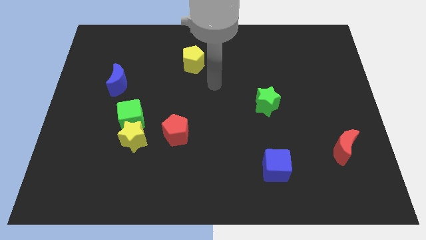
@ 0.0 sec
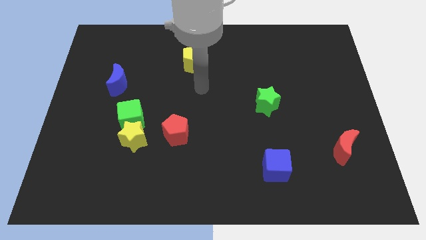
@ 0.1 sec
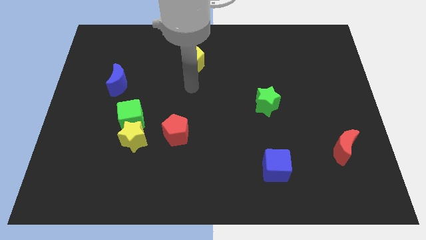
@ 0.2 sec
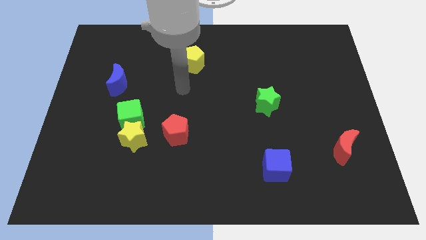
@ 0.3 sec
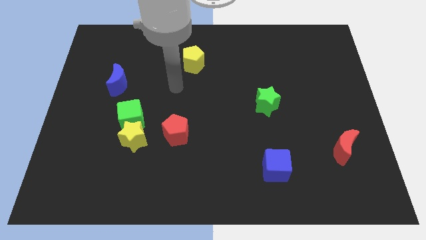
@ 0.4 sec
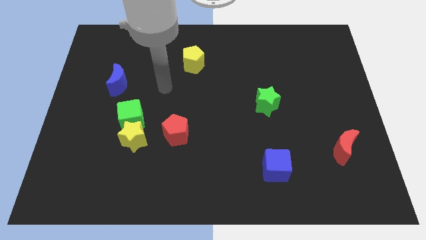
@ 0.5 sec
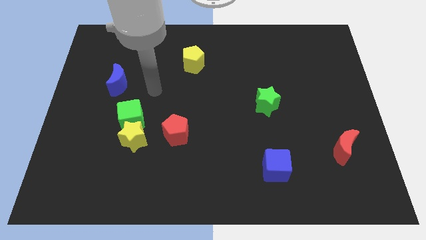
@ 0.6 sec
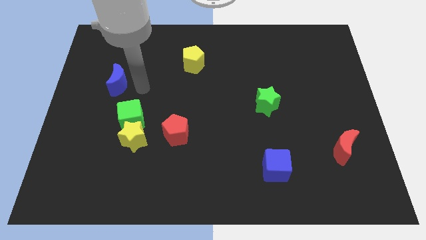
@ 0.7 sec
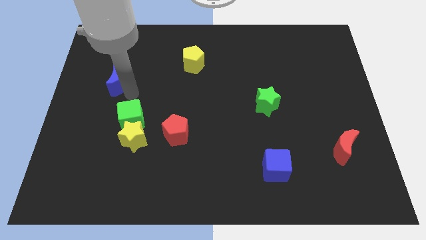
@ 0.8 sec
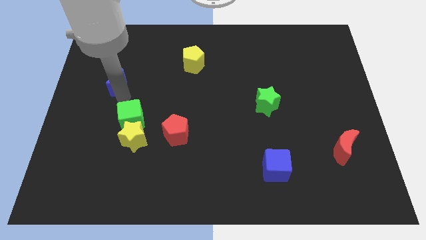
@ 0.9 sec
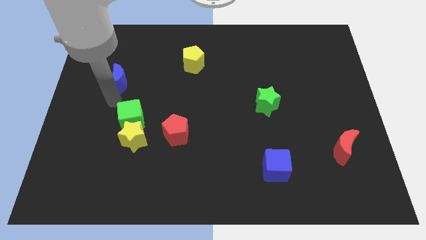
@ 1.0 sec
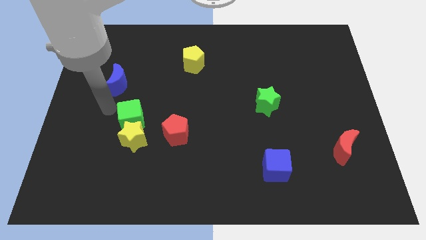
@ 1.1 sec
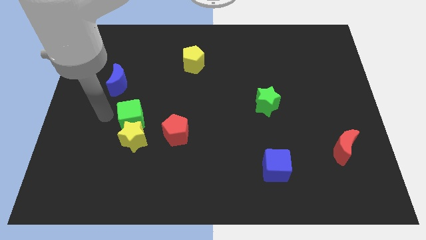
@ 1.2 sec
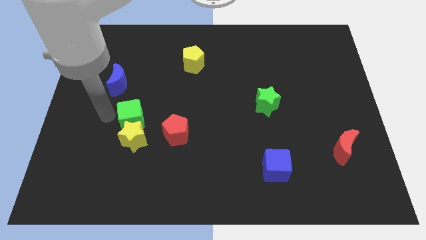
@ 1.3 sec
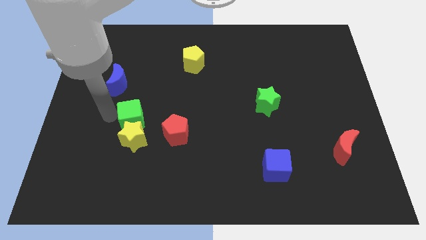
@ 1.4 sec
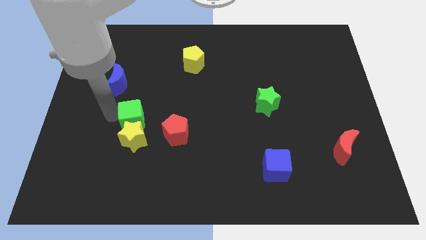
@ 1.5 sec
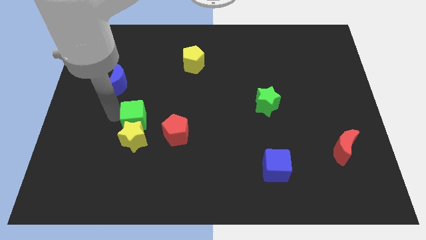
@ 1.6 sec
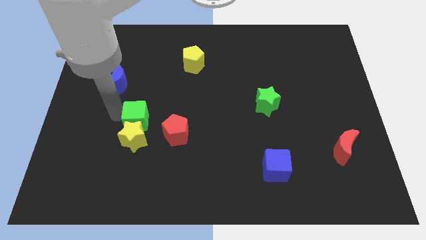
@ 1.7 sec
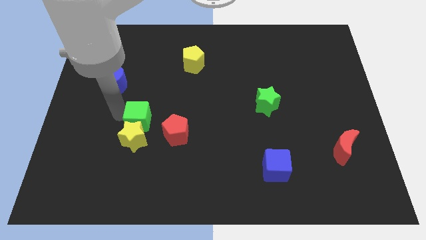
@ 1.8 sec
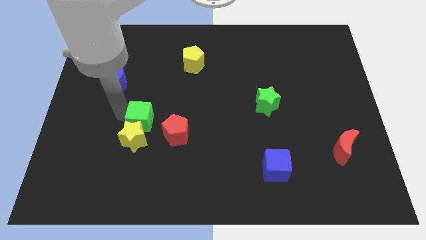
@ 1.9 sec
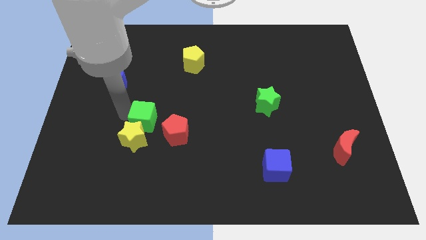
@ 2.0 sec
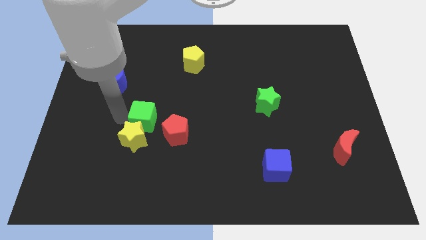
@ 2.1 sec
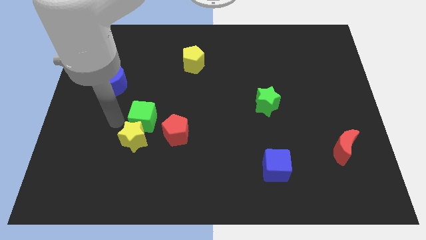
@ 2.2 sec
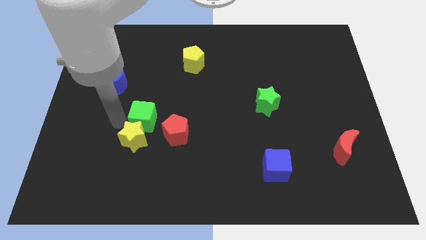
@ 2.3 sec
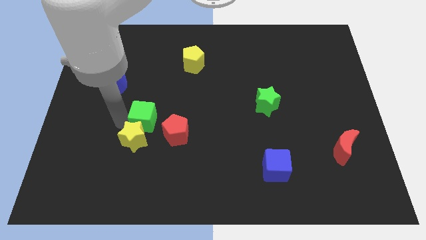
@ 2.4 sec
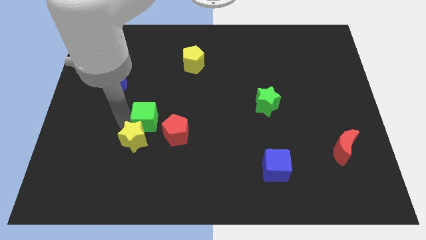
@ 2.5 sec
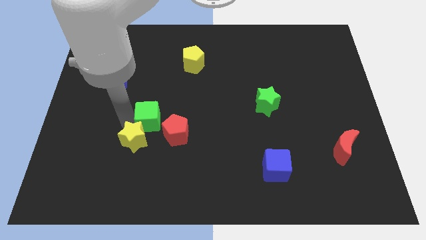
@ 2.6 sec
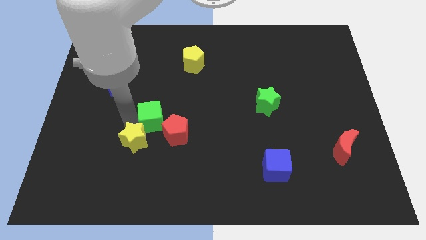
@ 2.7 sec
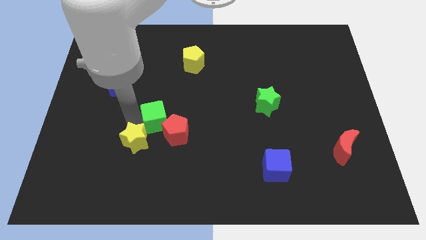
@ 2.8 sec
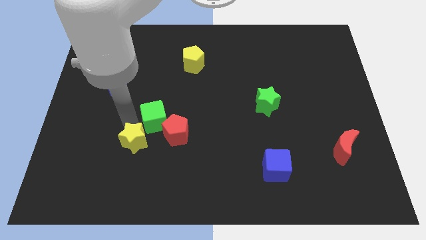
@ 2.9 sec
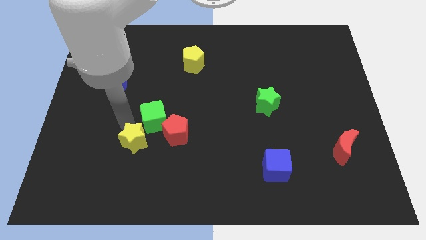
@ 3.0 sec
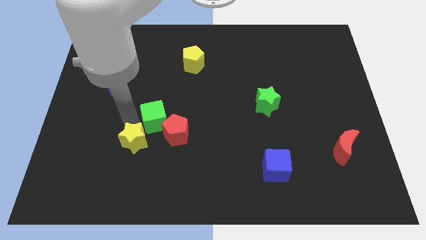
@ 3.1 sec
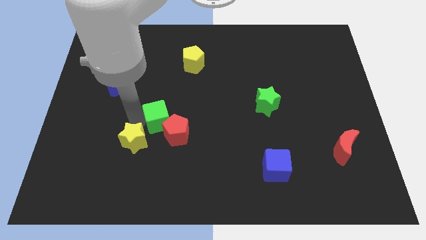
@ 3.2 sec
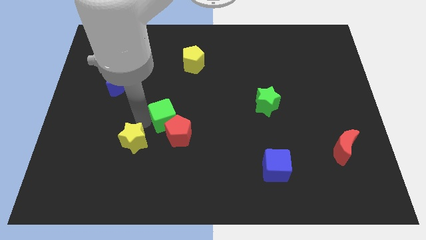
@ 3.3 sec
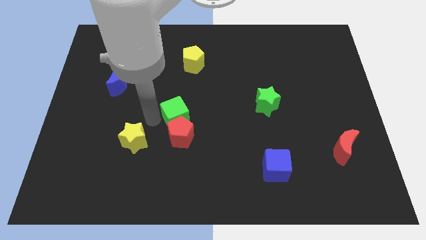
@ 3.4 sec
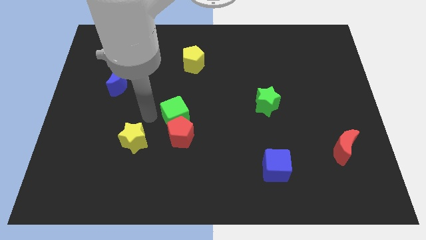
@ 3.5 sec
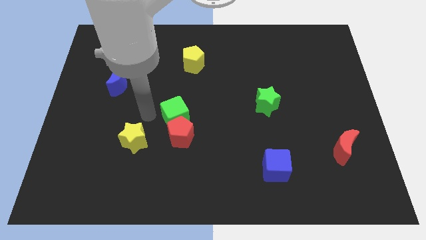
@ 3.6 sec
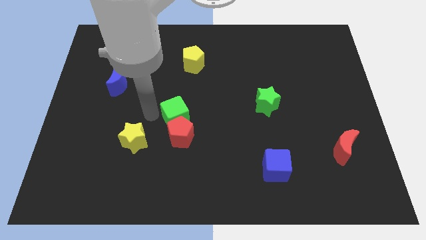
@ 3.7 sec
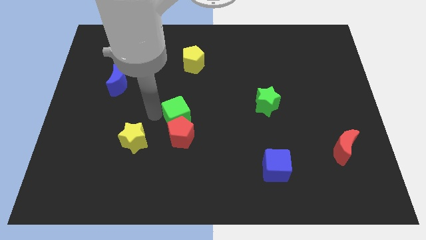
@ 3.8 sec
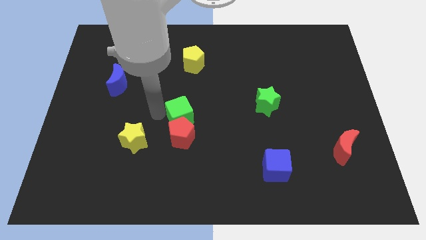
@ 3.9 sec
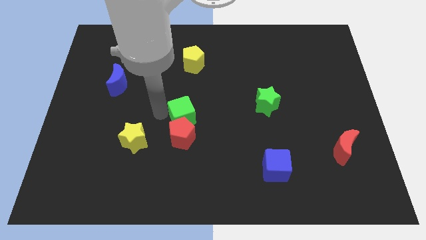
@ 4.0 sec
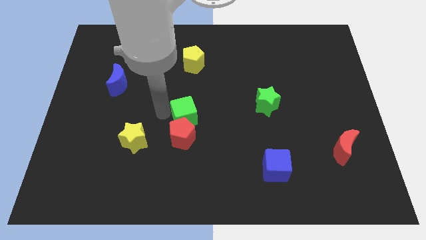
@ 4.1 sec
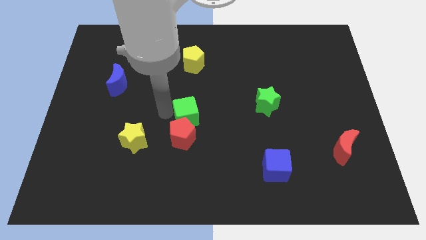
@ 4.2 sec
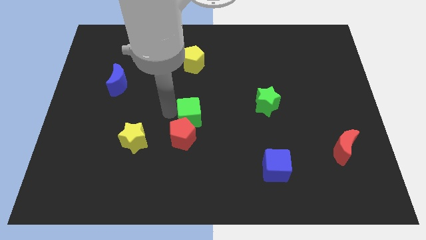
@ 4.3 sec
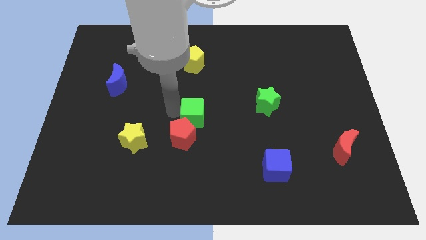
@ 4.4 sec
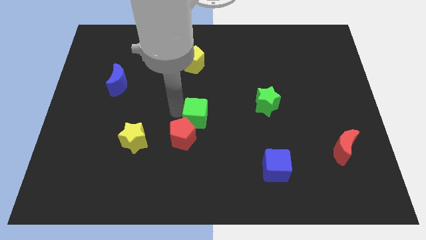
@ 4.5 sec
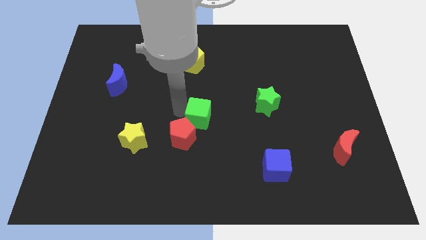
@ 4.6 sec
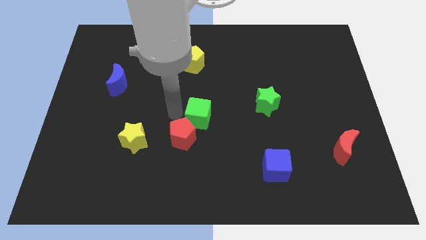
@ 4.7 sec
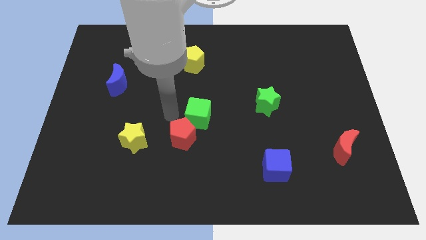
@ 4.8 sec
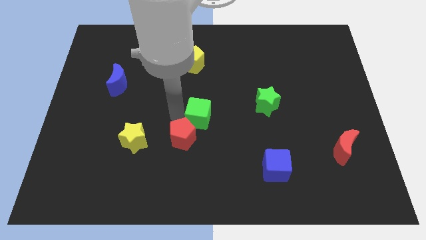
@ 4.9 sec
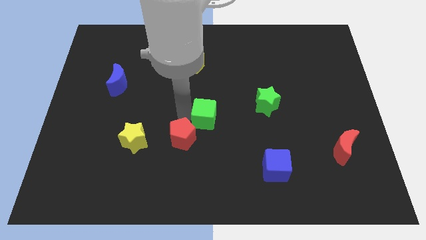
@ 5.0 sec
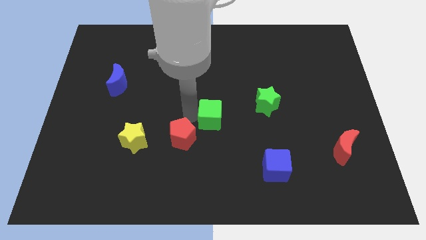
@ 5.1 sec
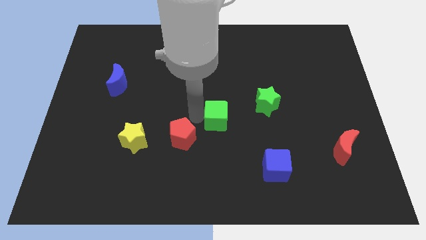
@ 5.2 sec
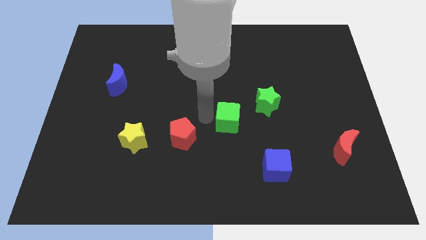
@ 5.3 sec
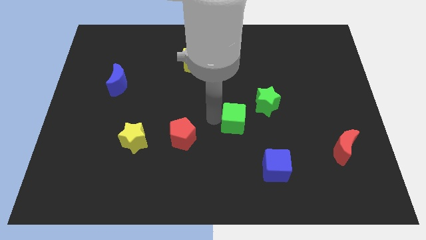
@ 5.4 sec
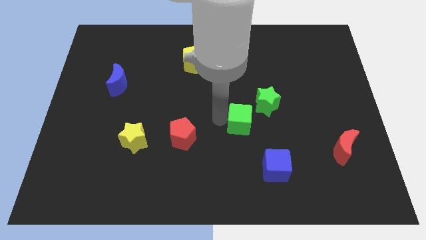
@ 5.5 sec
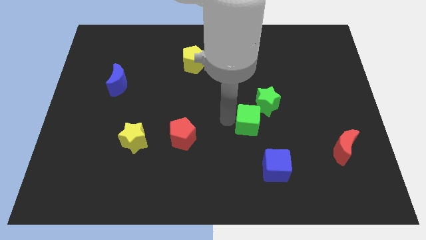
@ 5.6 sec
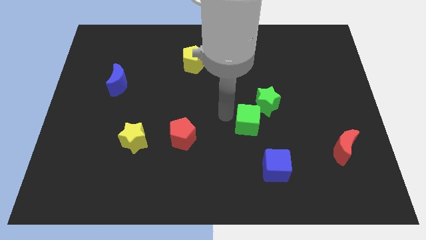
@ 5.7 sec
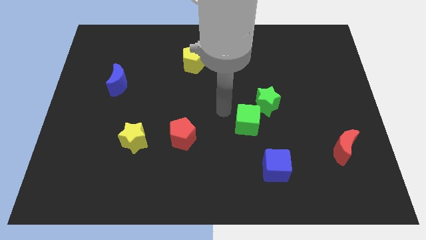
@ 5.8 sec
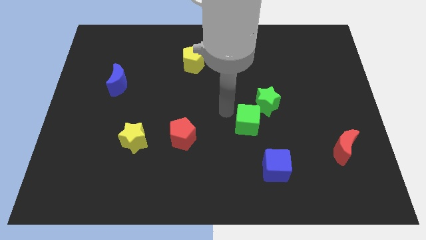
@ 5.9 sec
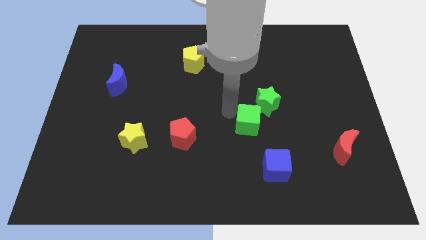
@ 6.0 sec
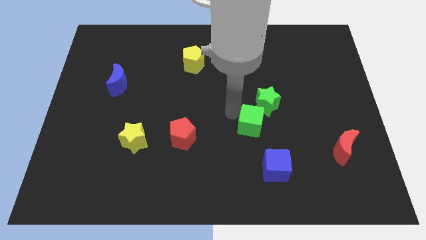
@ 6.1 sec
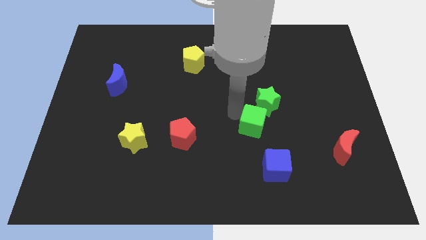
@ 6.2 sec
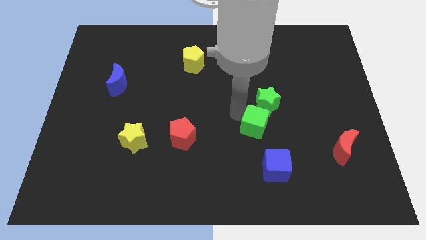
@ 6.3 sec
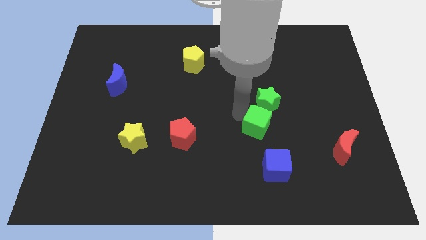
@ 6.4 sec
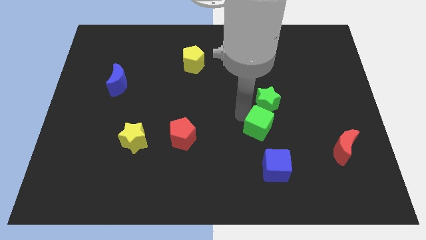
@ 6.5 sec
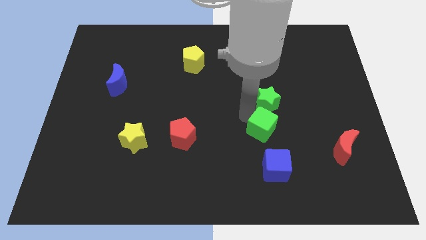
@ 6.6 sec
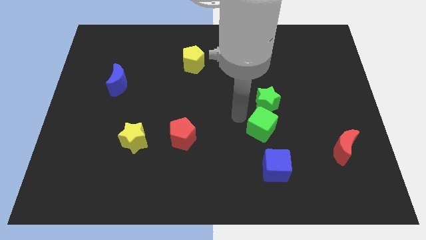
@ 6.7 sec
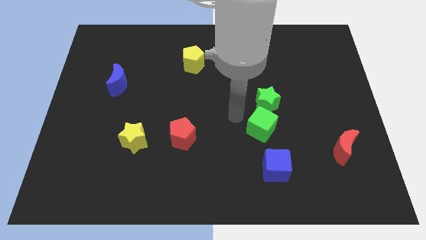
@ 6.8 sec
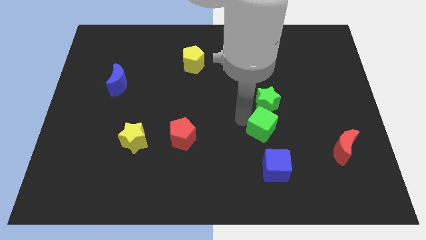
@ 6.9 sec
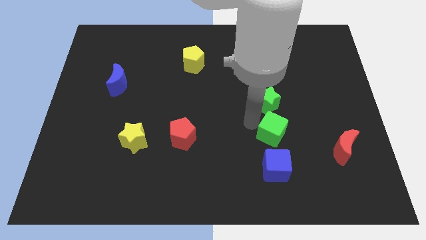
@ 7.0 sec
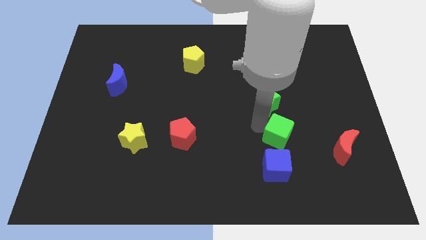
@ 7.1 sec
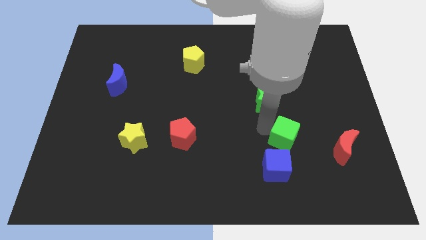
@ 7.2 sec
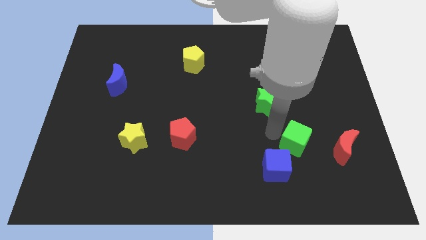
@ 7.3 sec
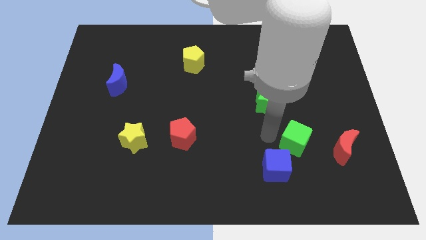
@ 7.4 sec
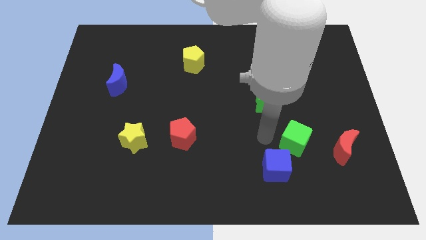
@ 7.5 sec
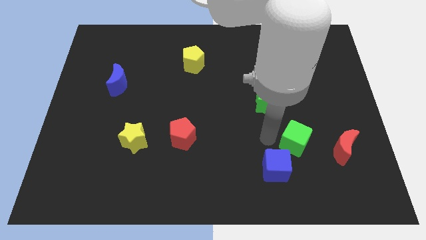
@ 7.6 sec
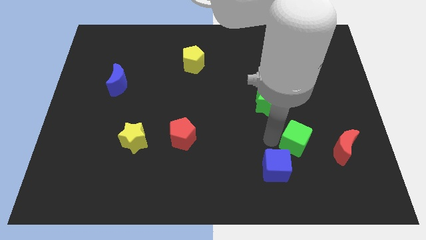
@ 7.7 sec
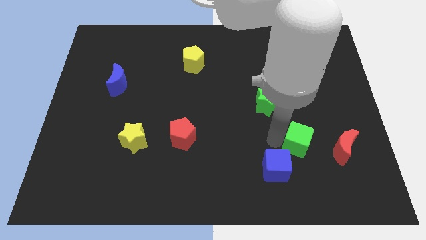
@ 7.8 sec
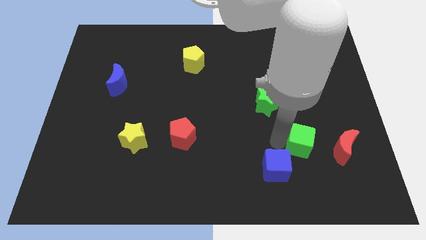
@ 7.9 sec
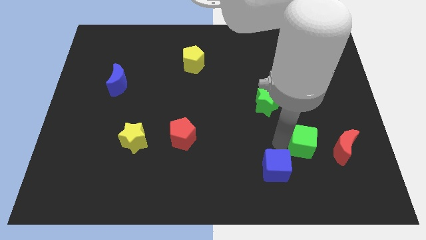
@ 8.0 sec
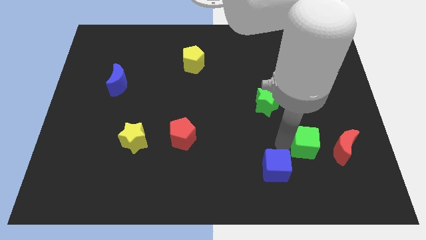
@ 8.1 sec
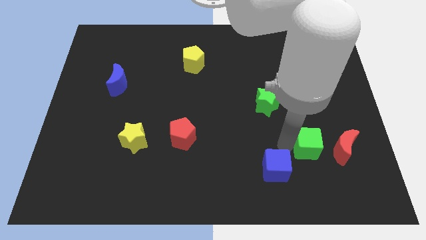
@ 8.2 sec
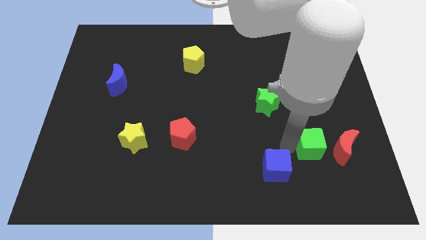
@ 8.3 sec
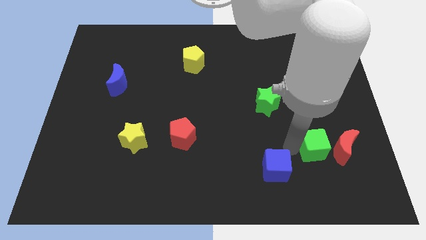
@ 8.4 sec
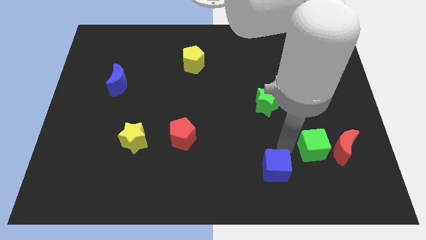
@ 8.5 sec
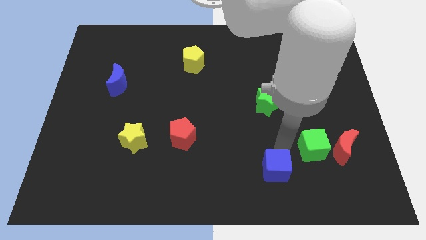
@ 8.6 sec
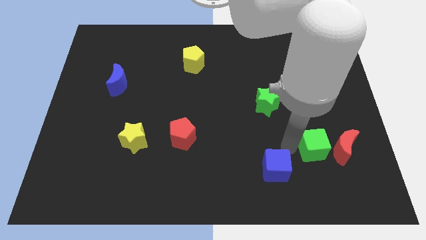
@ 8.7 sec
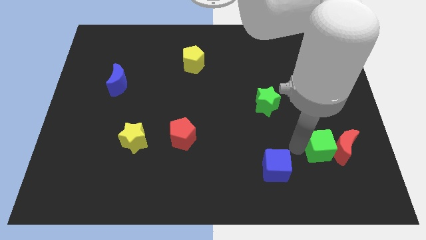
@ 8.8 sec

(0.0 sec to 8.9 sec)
push the green cube to the red moon
